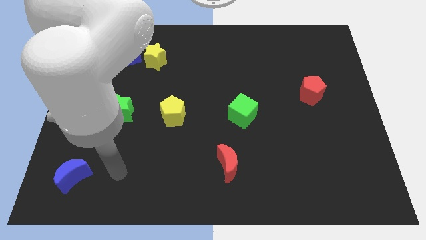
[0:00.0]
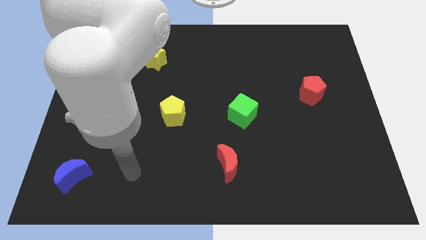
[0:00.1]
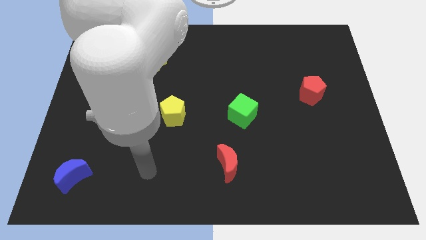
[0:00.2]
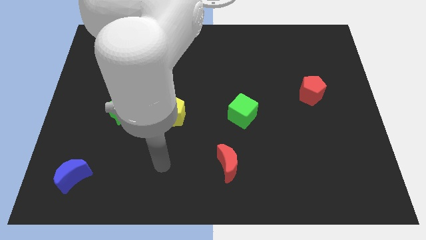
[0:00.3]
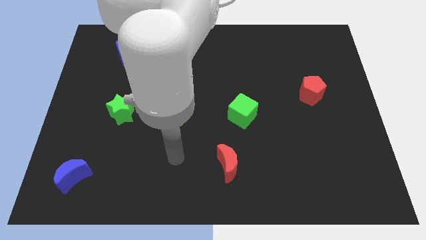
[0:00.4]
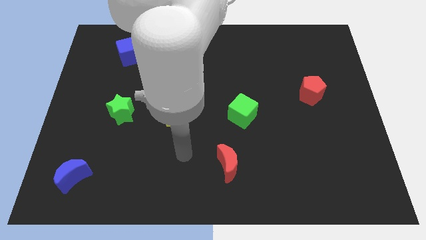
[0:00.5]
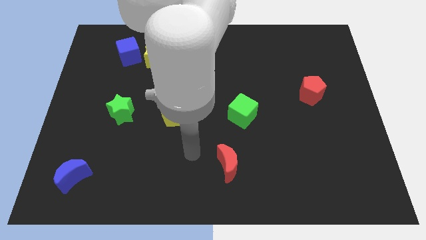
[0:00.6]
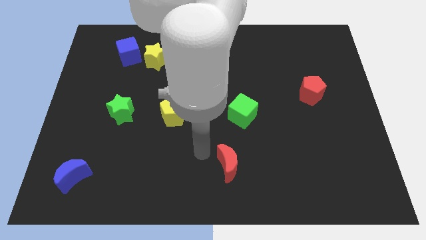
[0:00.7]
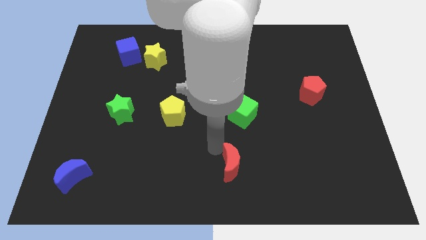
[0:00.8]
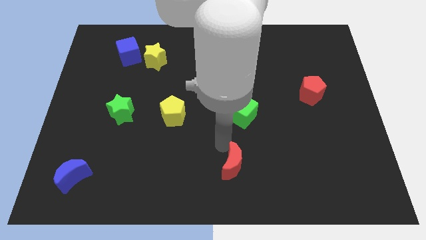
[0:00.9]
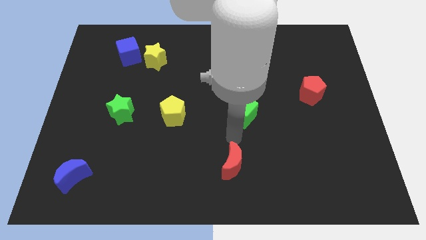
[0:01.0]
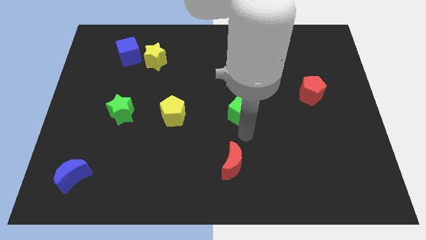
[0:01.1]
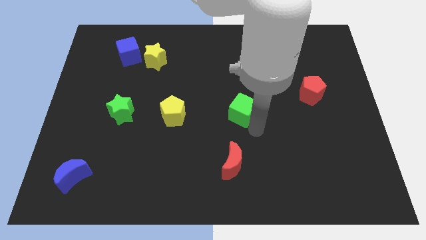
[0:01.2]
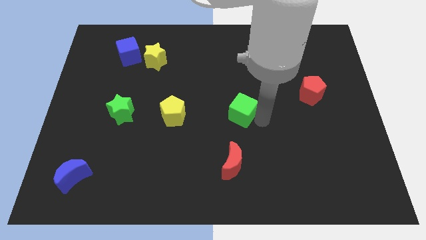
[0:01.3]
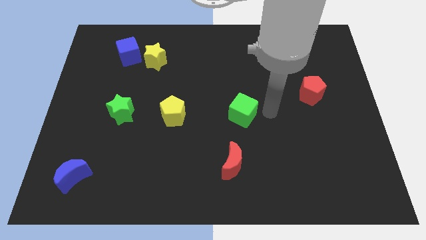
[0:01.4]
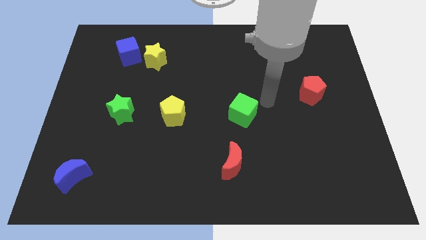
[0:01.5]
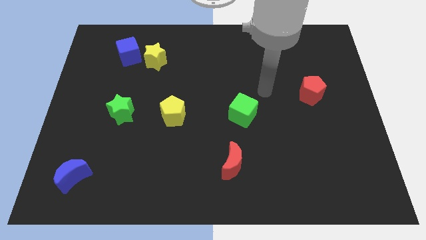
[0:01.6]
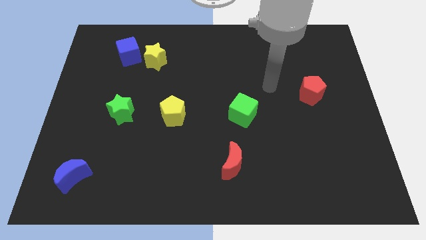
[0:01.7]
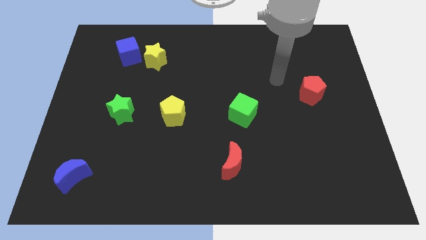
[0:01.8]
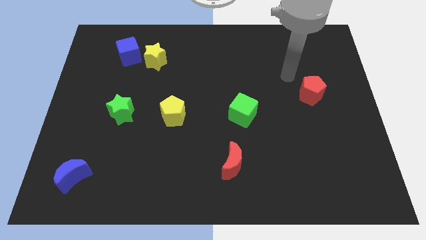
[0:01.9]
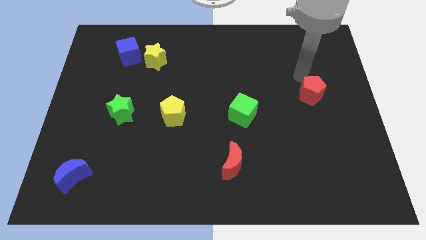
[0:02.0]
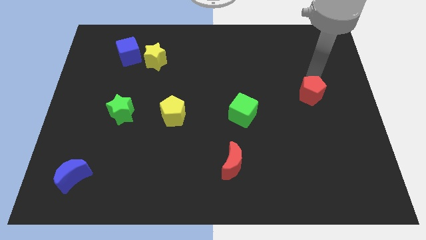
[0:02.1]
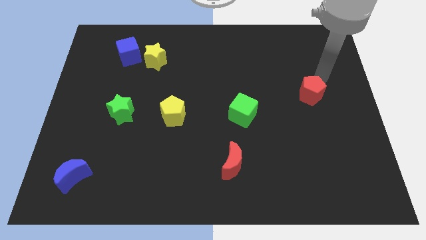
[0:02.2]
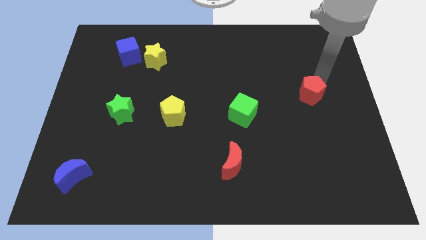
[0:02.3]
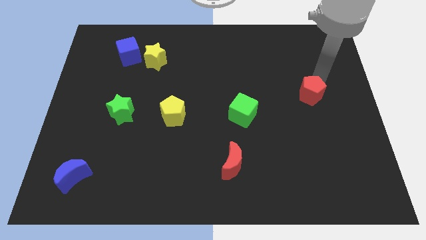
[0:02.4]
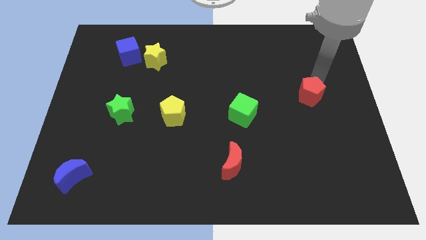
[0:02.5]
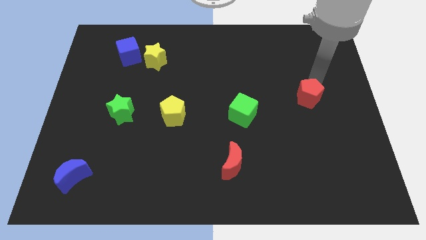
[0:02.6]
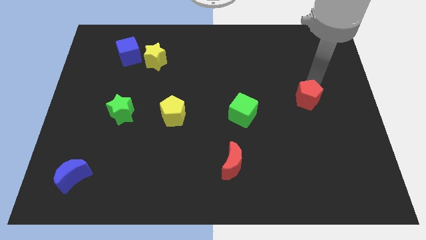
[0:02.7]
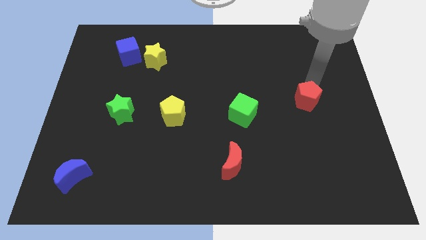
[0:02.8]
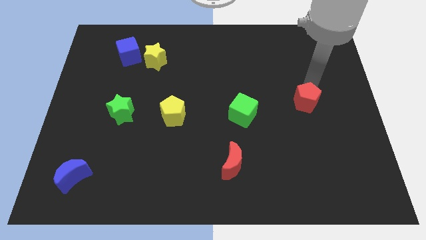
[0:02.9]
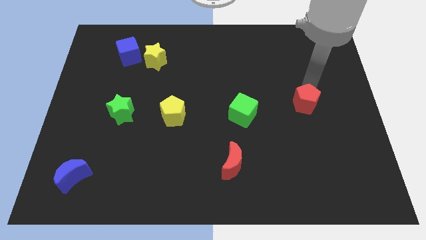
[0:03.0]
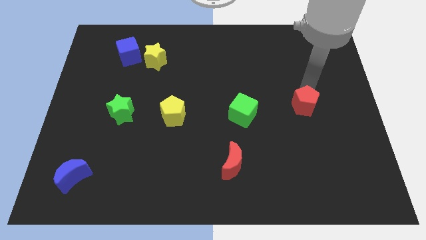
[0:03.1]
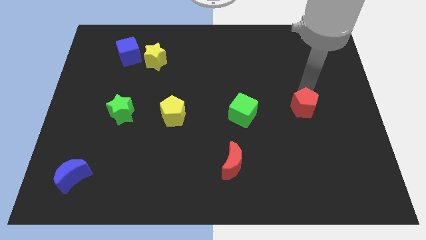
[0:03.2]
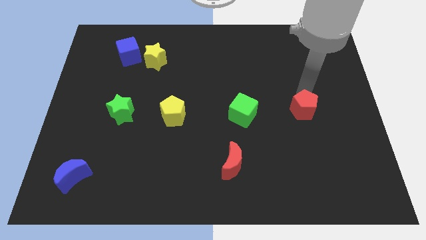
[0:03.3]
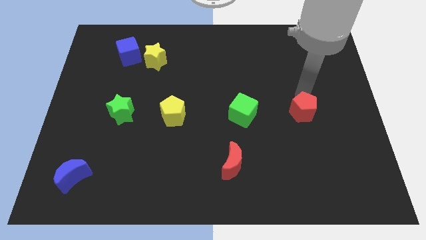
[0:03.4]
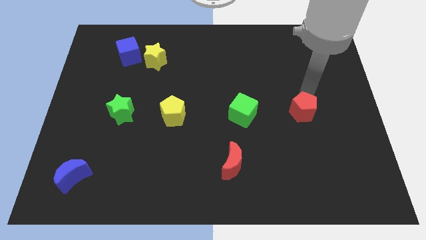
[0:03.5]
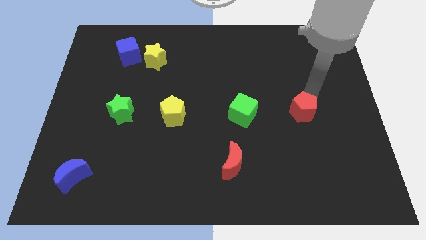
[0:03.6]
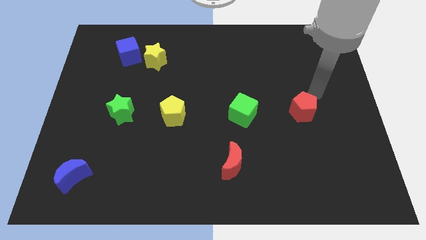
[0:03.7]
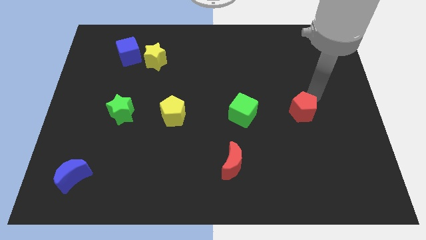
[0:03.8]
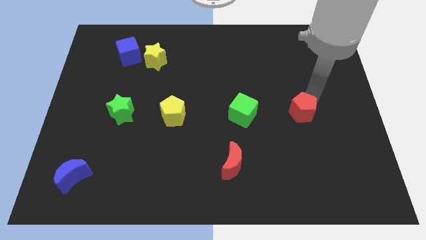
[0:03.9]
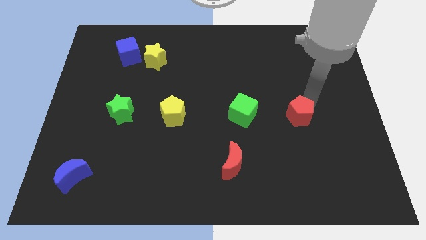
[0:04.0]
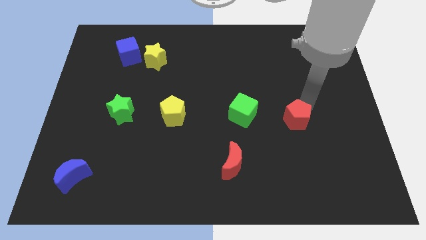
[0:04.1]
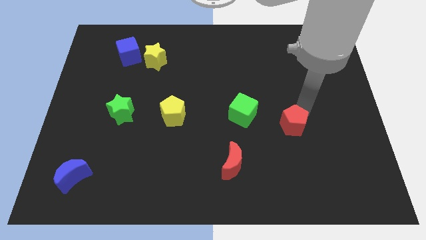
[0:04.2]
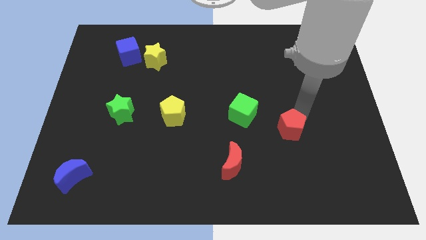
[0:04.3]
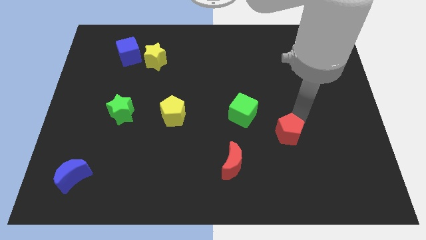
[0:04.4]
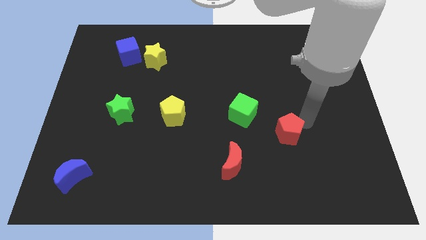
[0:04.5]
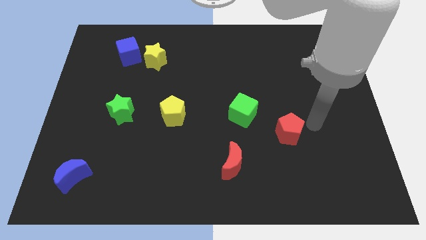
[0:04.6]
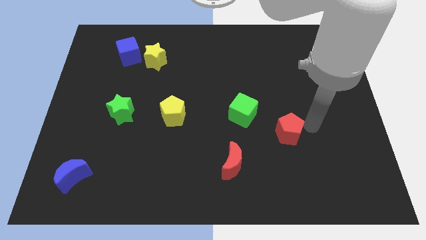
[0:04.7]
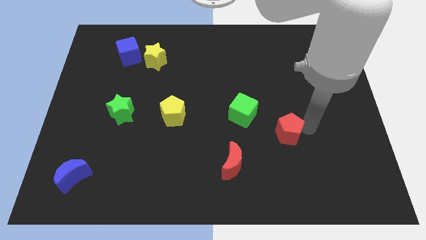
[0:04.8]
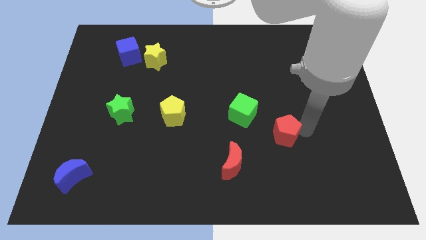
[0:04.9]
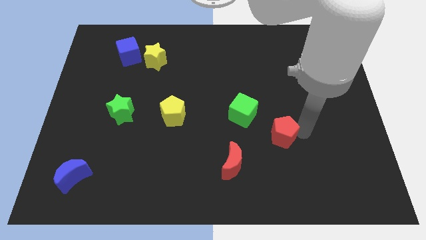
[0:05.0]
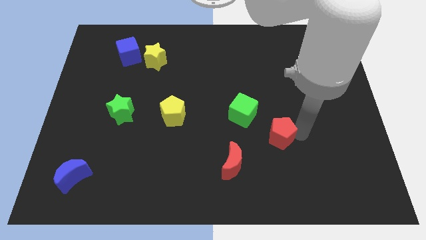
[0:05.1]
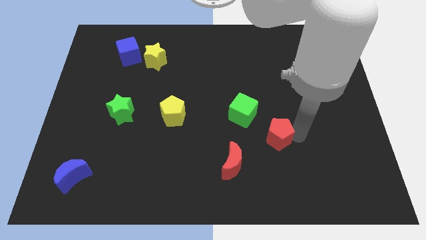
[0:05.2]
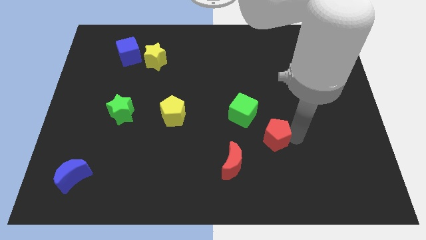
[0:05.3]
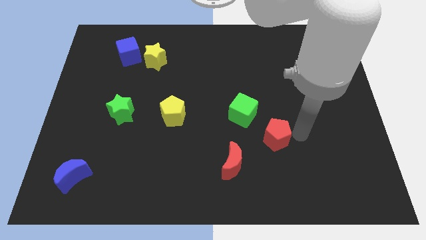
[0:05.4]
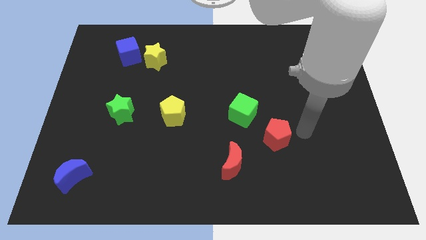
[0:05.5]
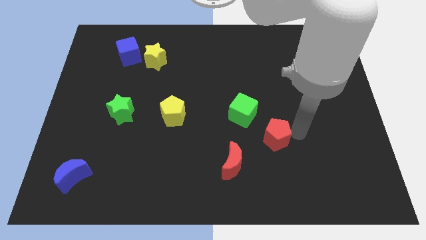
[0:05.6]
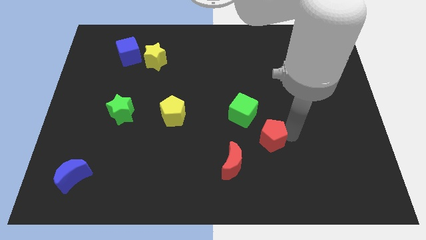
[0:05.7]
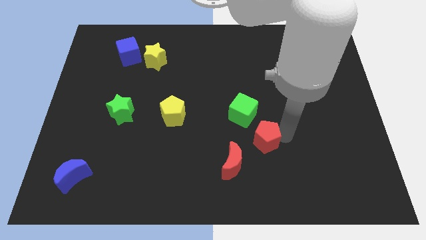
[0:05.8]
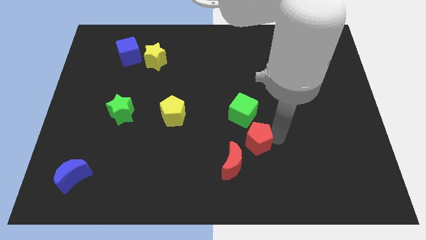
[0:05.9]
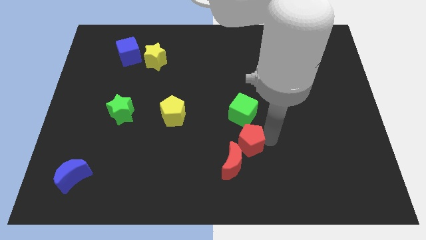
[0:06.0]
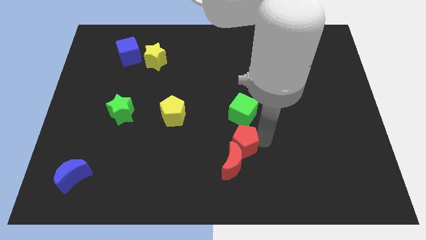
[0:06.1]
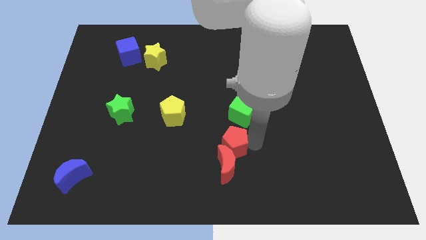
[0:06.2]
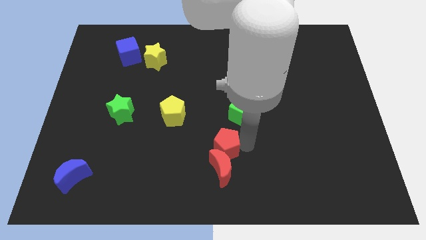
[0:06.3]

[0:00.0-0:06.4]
put the red pentagon diagonally up and to the left of the red moon

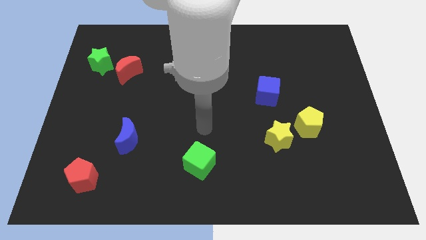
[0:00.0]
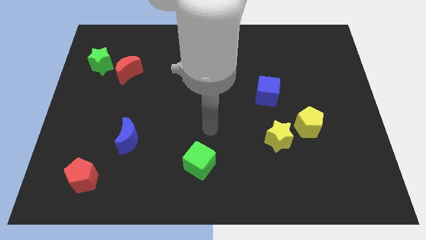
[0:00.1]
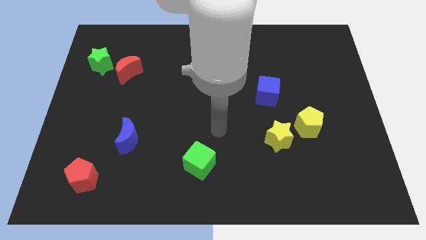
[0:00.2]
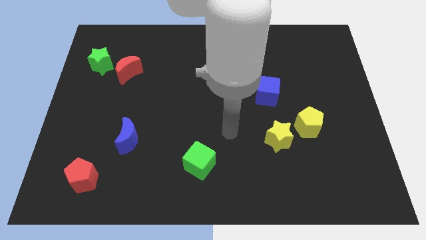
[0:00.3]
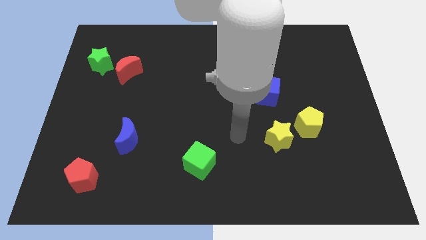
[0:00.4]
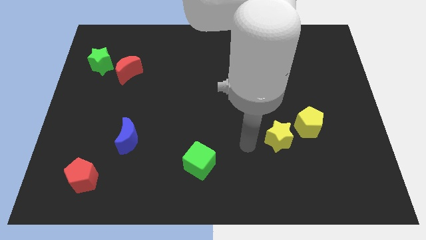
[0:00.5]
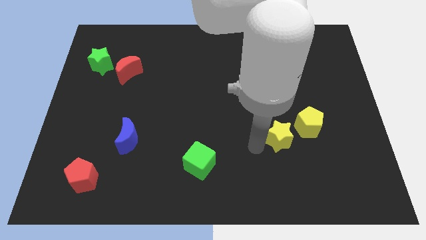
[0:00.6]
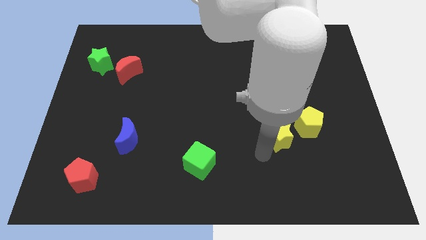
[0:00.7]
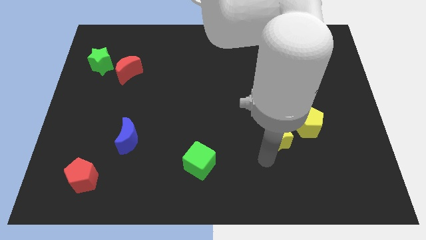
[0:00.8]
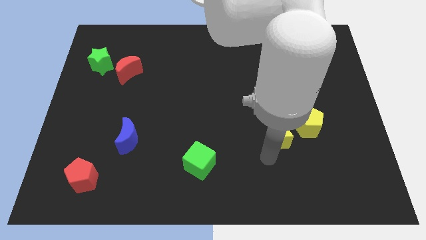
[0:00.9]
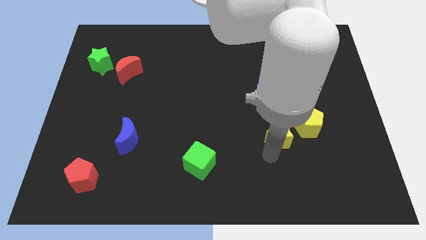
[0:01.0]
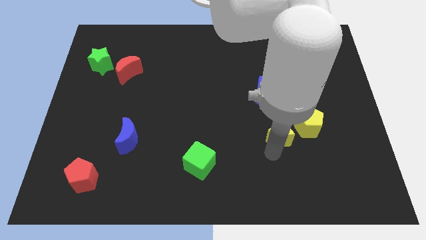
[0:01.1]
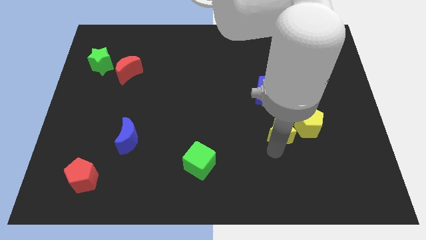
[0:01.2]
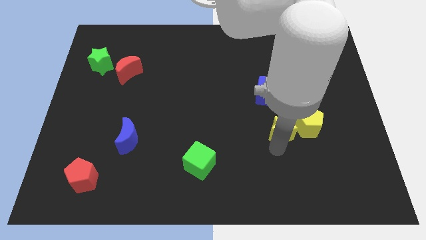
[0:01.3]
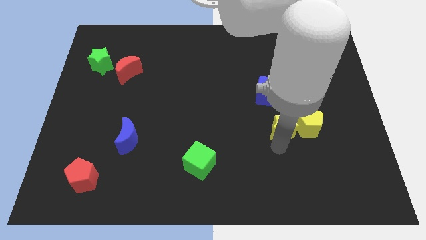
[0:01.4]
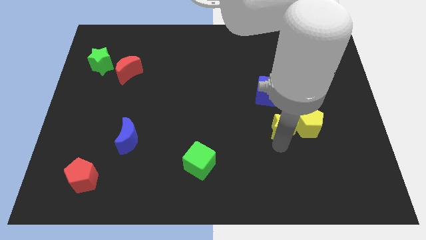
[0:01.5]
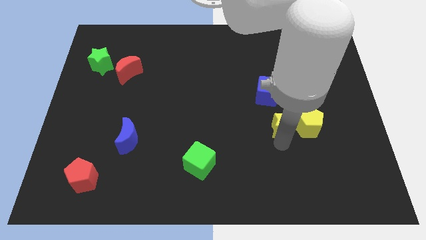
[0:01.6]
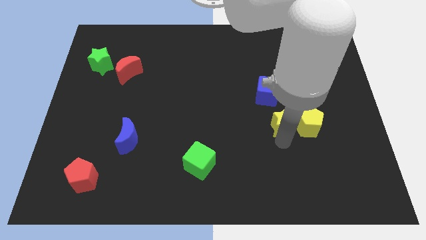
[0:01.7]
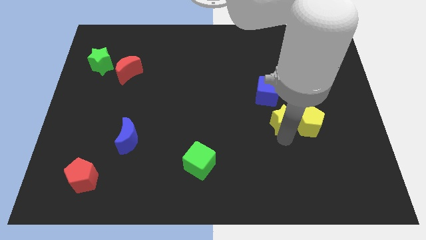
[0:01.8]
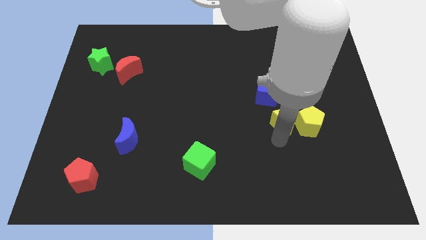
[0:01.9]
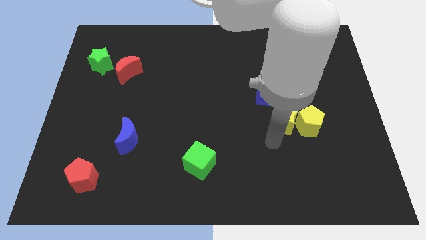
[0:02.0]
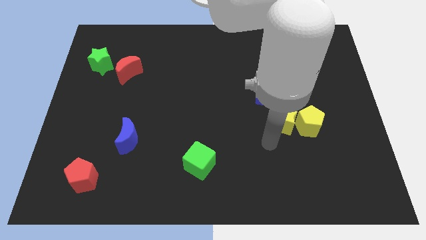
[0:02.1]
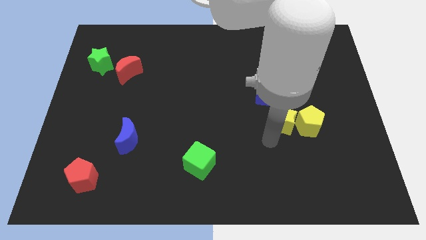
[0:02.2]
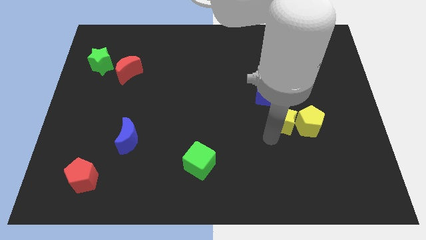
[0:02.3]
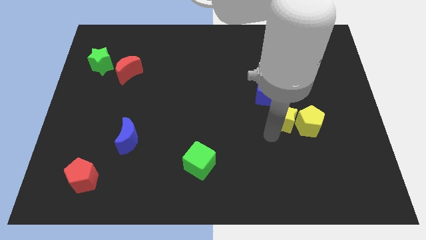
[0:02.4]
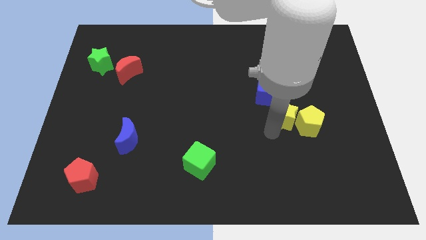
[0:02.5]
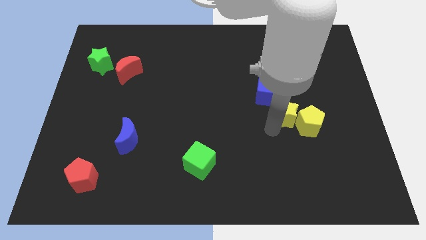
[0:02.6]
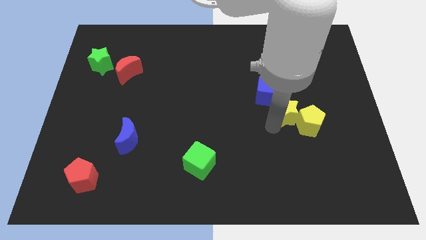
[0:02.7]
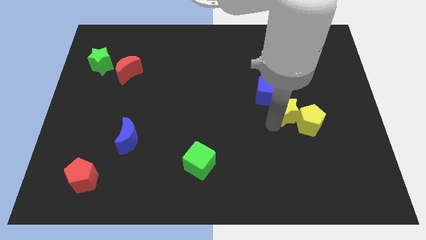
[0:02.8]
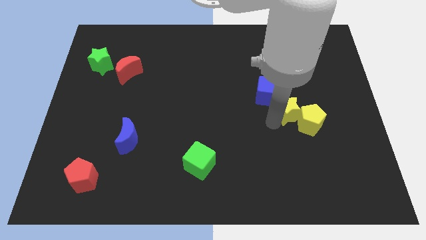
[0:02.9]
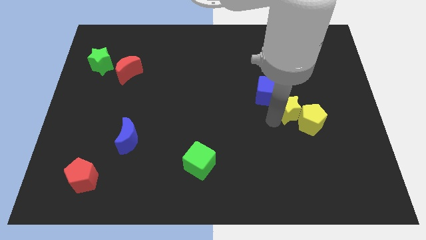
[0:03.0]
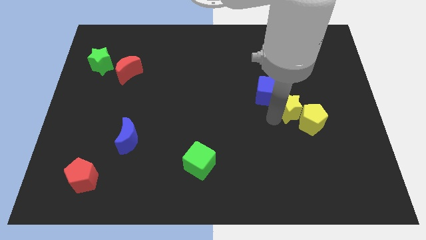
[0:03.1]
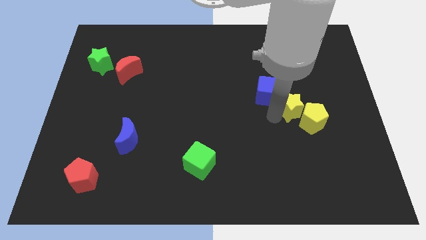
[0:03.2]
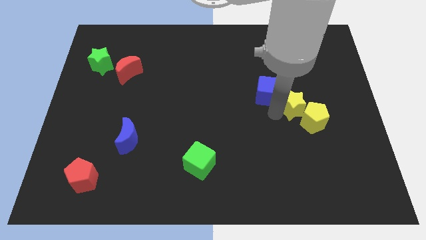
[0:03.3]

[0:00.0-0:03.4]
put the yellow star to the top of the yellow pentagon
